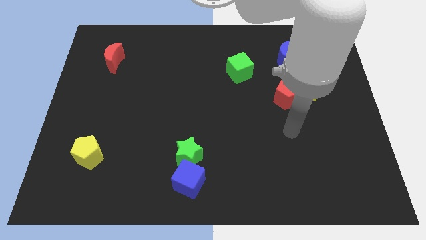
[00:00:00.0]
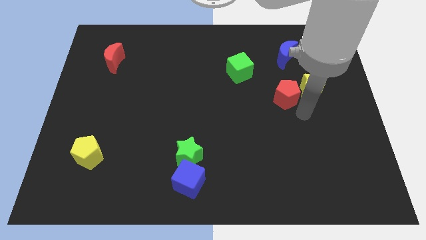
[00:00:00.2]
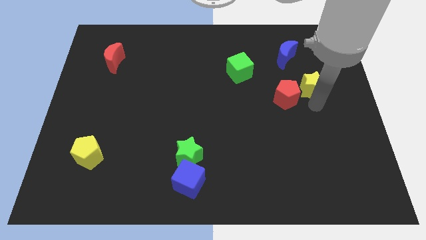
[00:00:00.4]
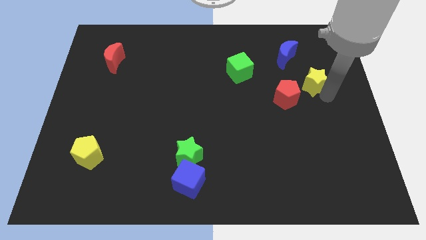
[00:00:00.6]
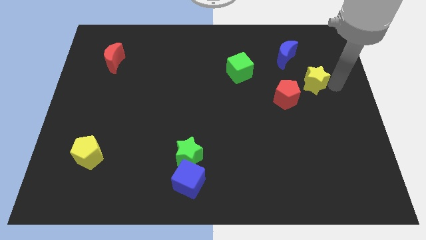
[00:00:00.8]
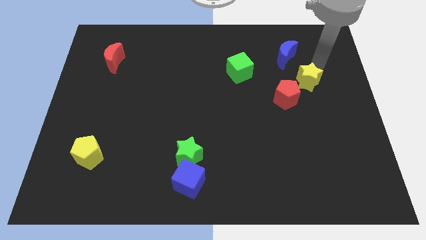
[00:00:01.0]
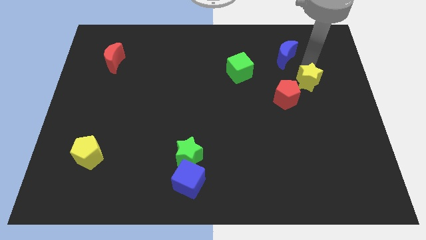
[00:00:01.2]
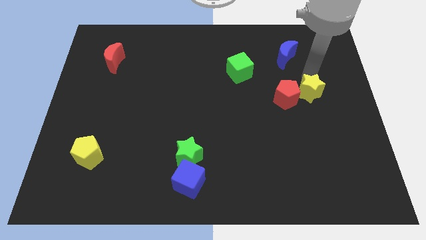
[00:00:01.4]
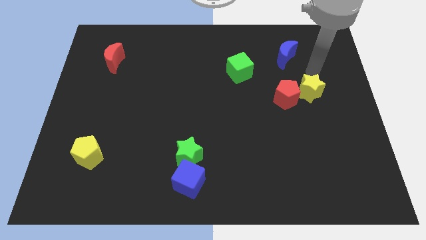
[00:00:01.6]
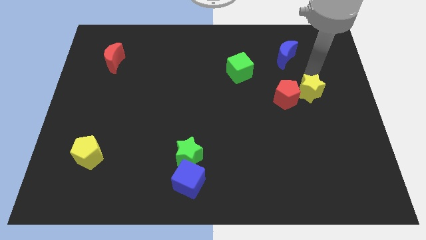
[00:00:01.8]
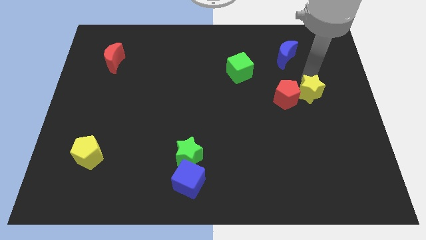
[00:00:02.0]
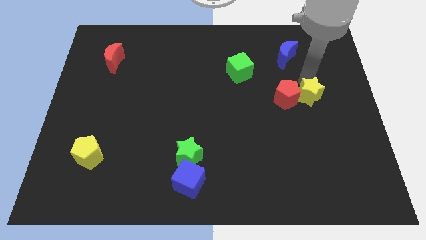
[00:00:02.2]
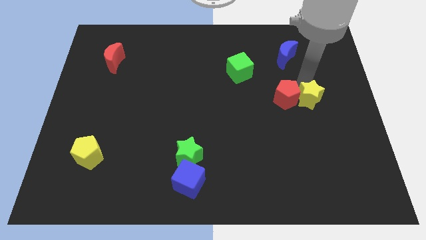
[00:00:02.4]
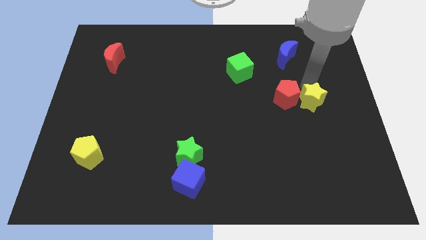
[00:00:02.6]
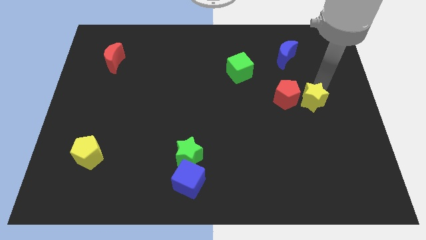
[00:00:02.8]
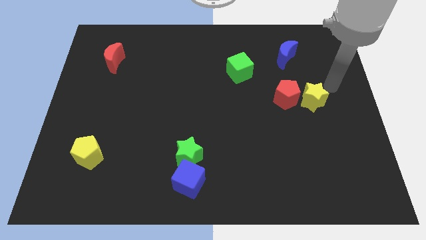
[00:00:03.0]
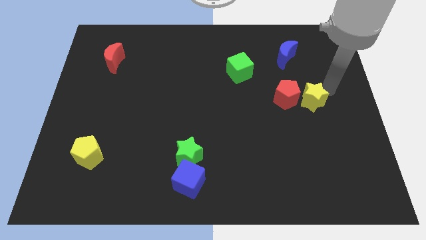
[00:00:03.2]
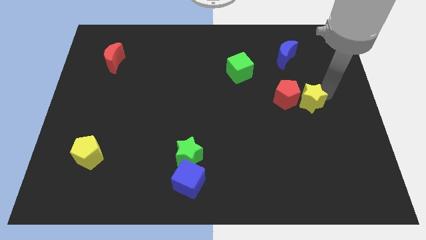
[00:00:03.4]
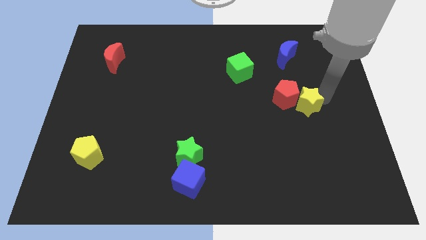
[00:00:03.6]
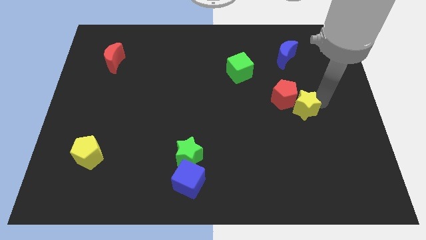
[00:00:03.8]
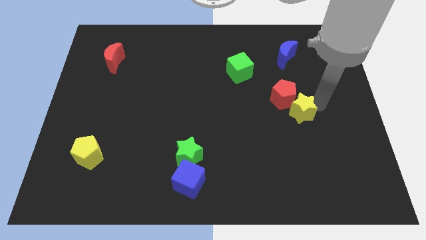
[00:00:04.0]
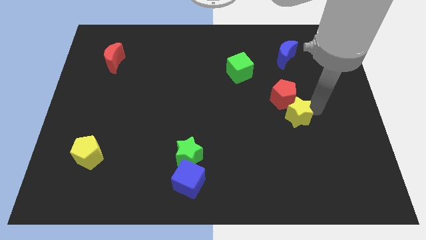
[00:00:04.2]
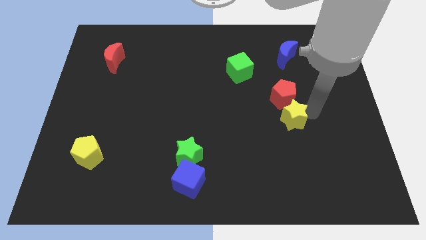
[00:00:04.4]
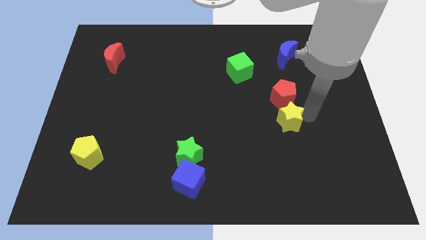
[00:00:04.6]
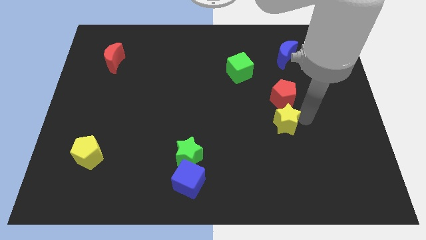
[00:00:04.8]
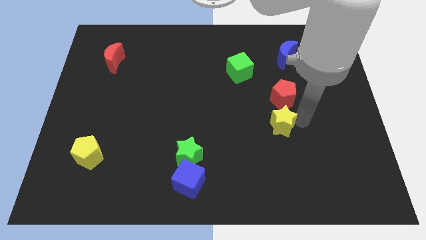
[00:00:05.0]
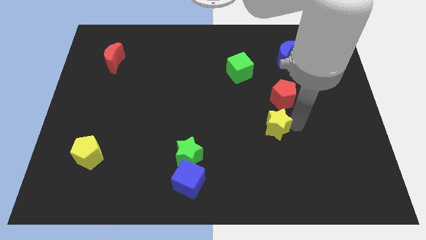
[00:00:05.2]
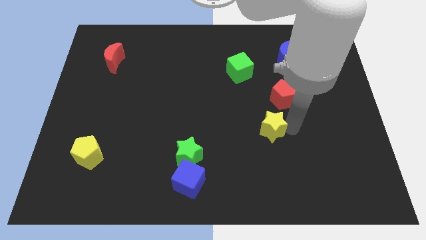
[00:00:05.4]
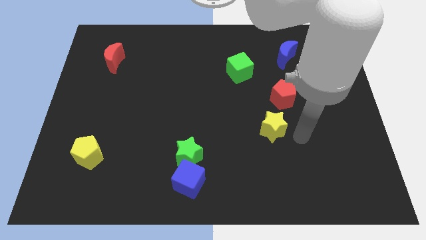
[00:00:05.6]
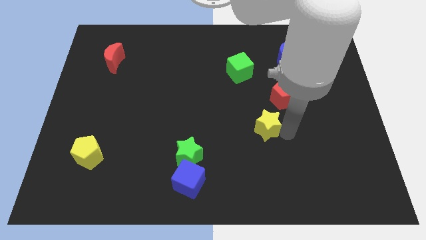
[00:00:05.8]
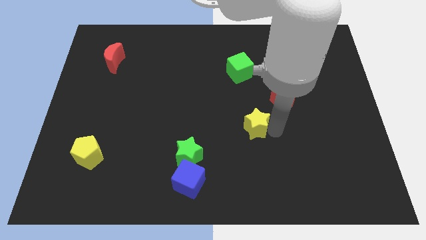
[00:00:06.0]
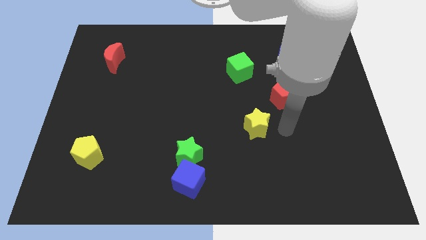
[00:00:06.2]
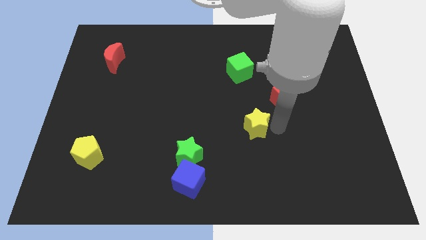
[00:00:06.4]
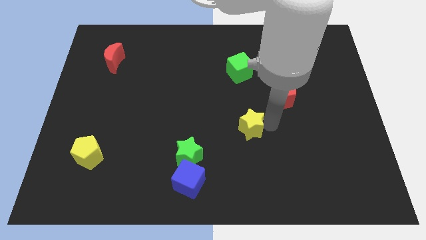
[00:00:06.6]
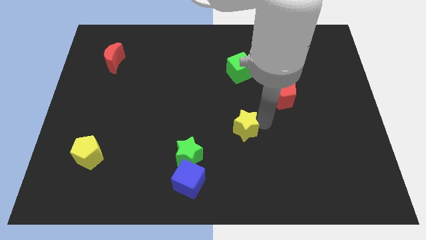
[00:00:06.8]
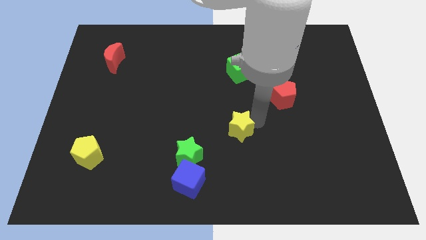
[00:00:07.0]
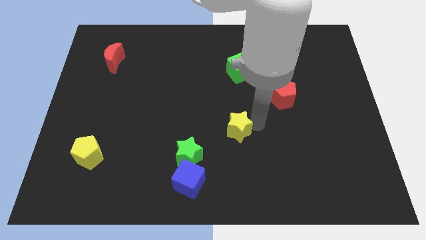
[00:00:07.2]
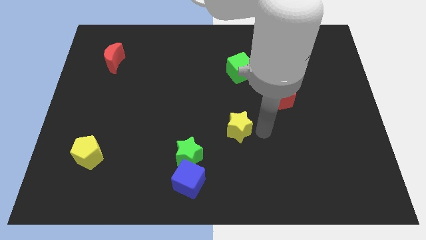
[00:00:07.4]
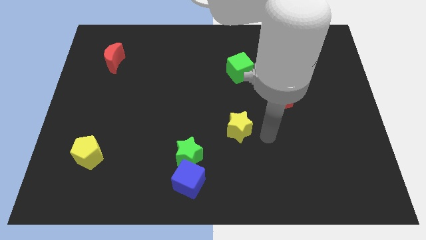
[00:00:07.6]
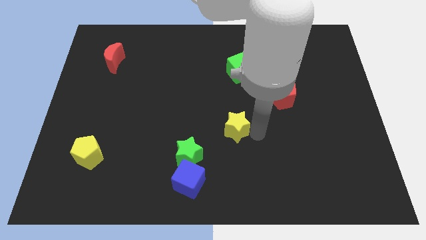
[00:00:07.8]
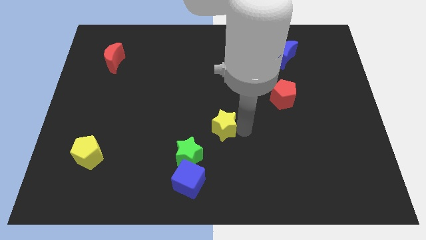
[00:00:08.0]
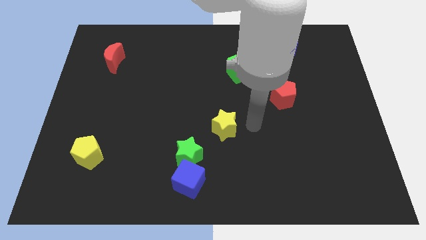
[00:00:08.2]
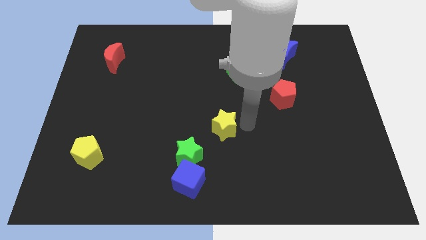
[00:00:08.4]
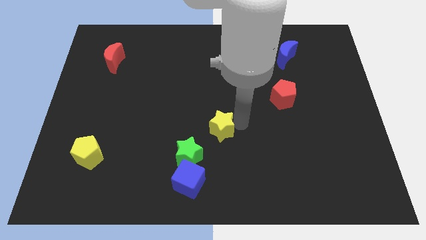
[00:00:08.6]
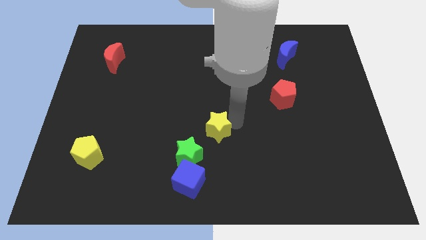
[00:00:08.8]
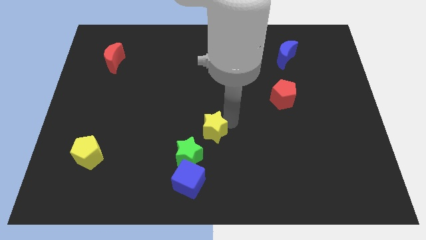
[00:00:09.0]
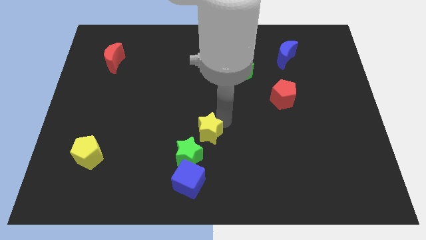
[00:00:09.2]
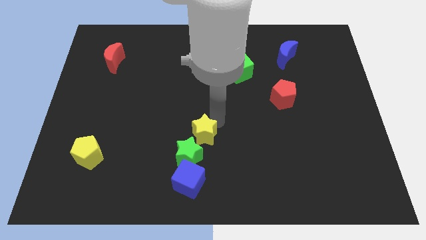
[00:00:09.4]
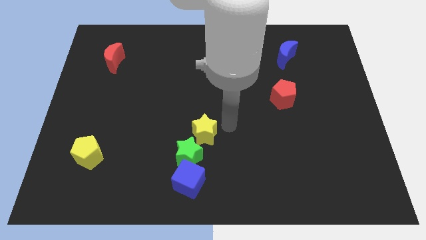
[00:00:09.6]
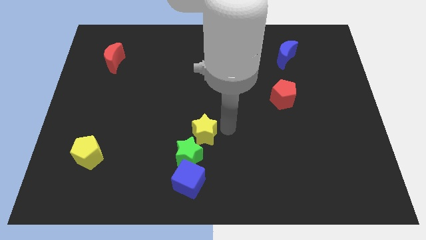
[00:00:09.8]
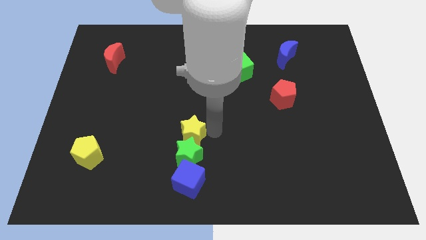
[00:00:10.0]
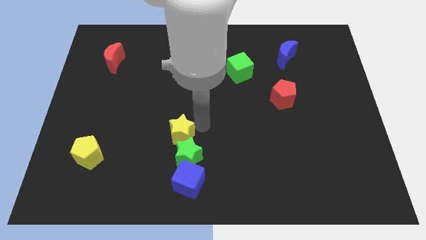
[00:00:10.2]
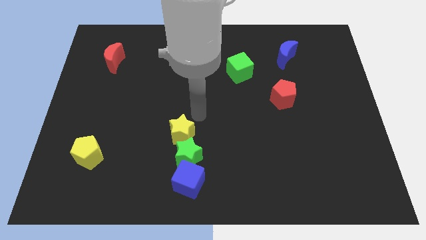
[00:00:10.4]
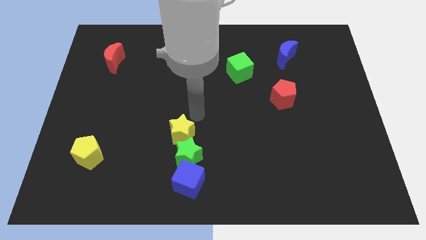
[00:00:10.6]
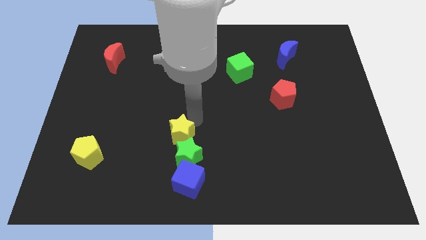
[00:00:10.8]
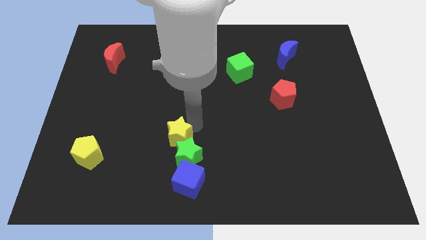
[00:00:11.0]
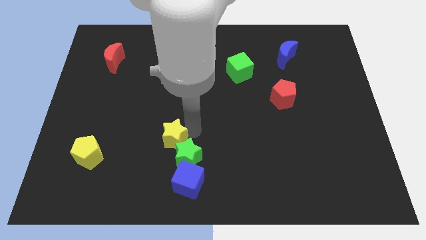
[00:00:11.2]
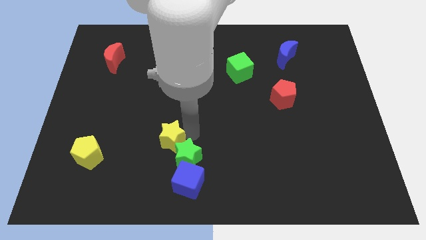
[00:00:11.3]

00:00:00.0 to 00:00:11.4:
push the yellow star to the top left side of the blue cube
